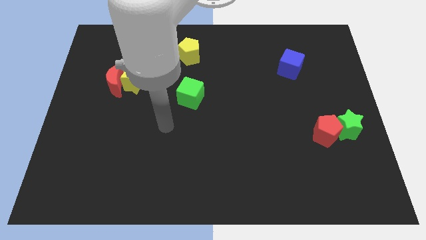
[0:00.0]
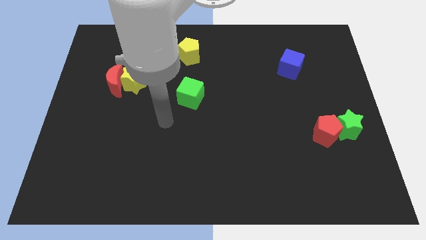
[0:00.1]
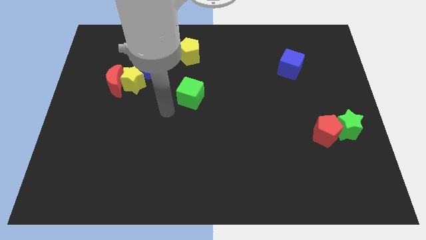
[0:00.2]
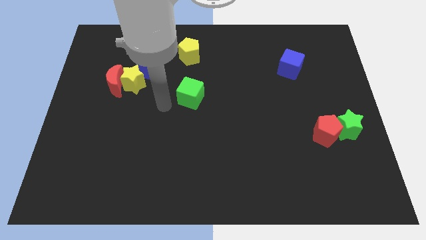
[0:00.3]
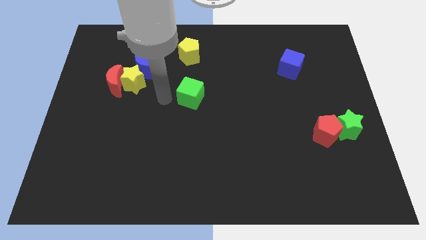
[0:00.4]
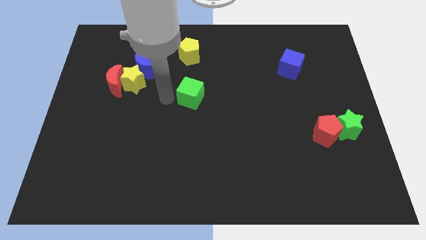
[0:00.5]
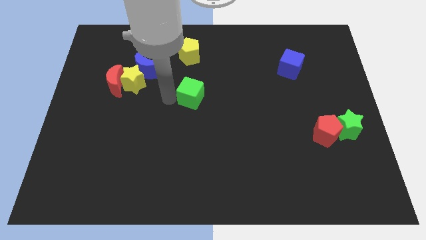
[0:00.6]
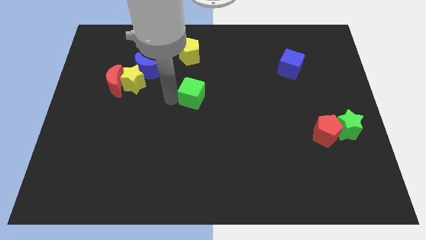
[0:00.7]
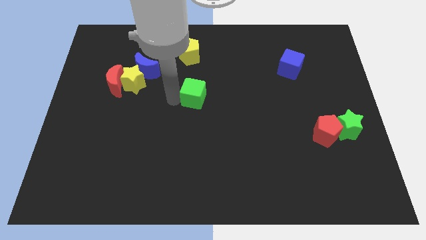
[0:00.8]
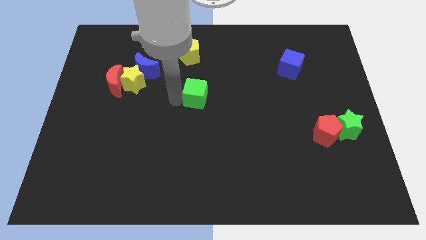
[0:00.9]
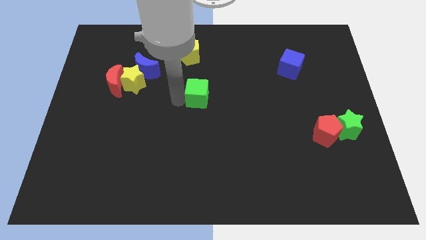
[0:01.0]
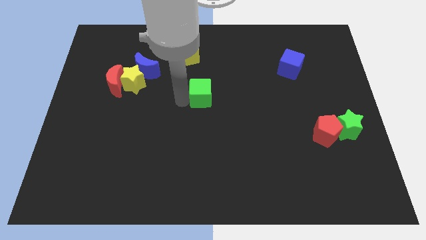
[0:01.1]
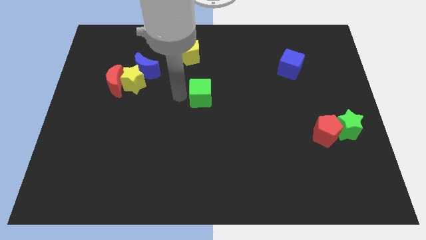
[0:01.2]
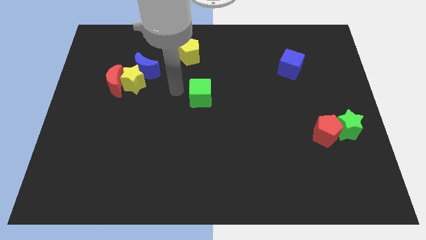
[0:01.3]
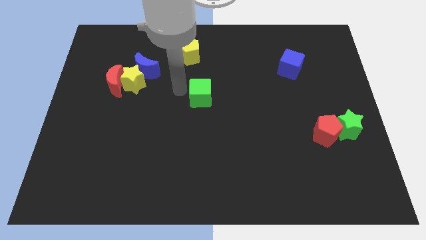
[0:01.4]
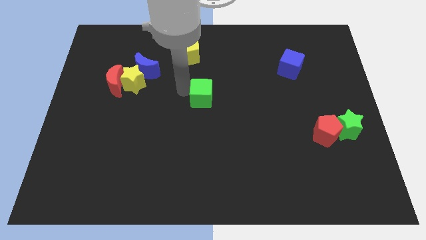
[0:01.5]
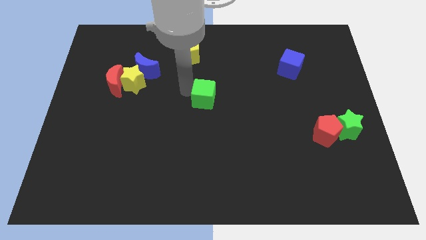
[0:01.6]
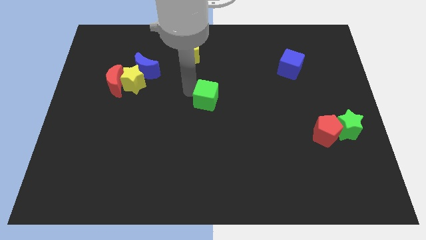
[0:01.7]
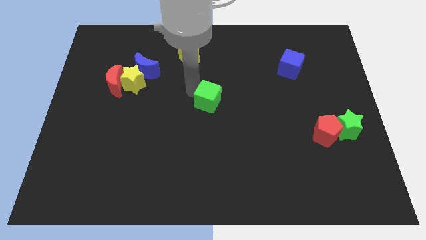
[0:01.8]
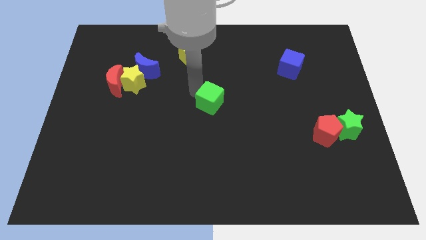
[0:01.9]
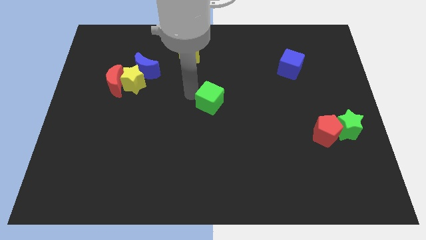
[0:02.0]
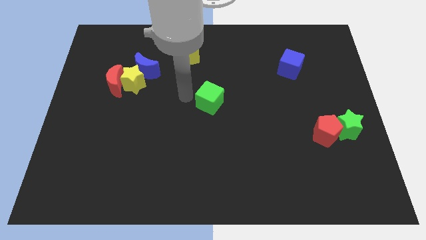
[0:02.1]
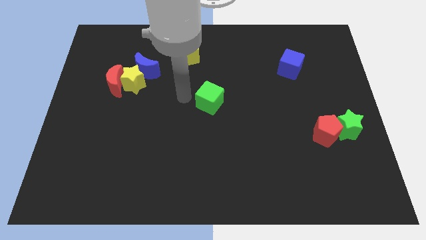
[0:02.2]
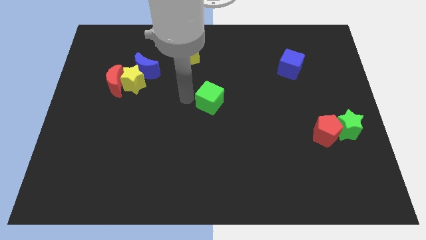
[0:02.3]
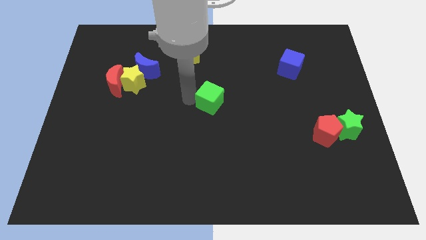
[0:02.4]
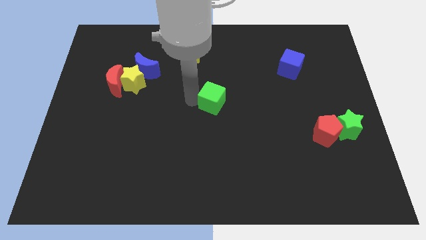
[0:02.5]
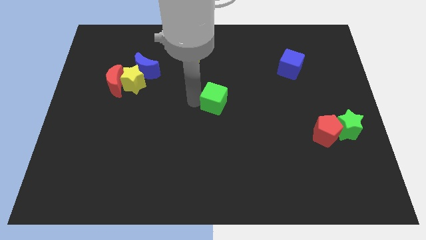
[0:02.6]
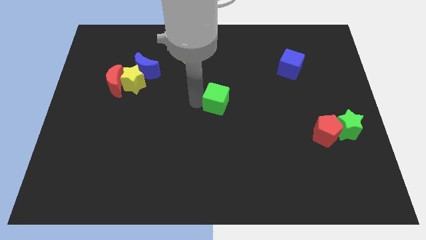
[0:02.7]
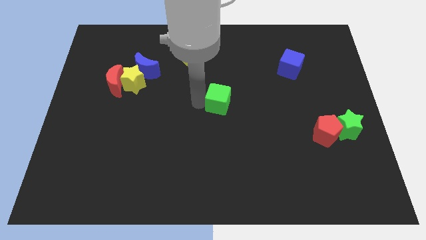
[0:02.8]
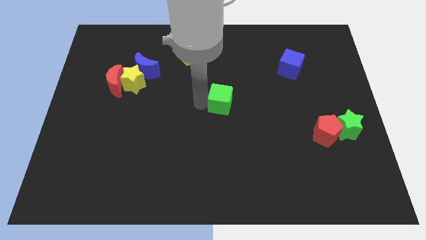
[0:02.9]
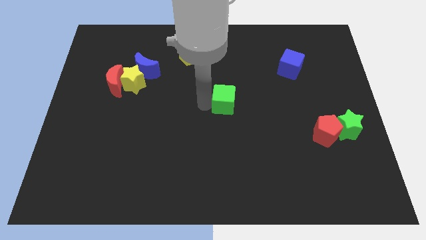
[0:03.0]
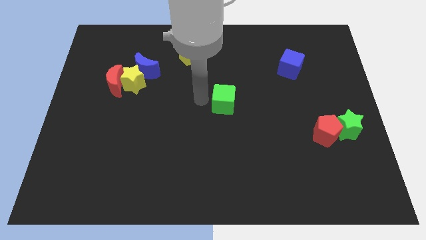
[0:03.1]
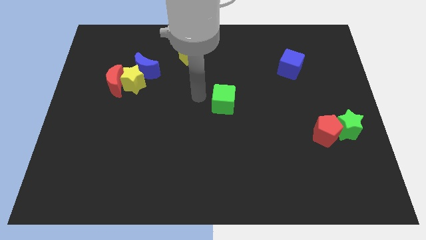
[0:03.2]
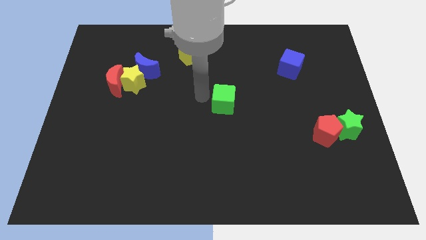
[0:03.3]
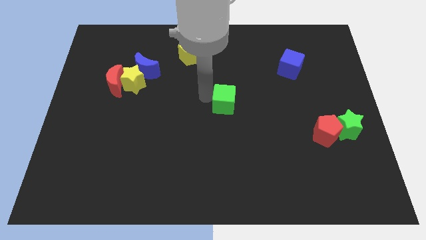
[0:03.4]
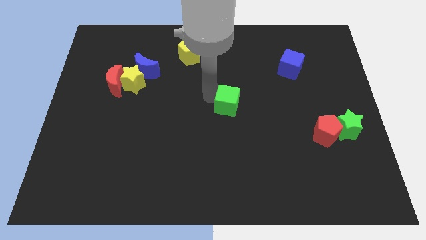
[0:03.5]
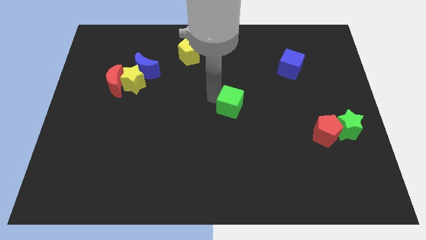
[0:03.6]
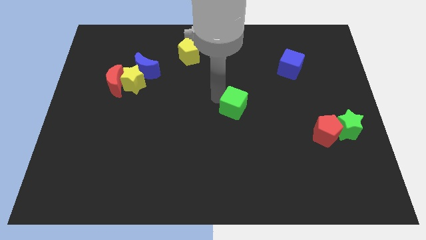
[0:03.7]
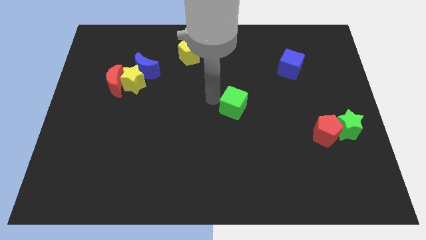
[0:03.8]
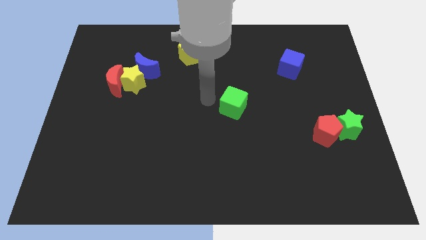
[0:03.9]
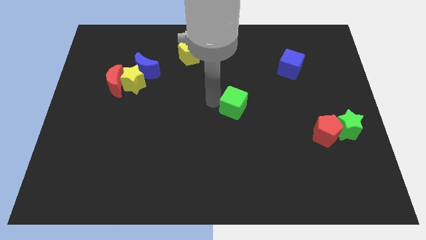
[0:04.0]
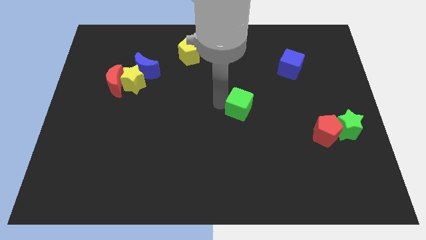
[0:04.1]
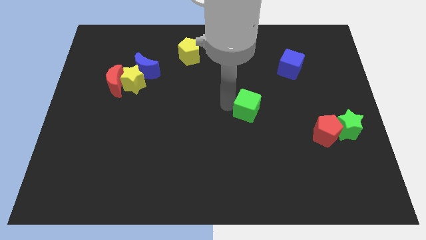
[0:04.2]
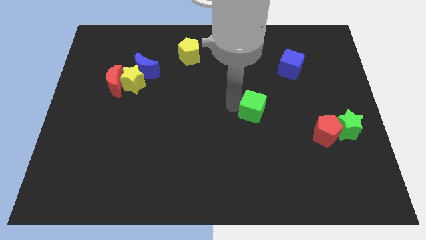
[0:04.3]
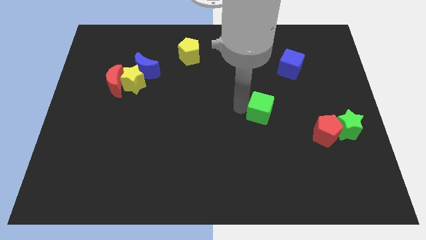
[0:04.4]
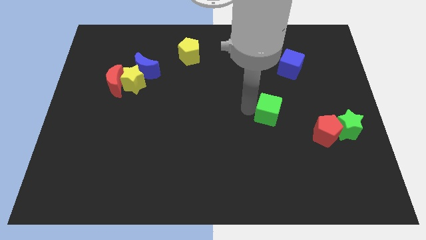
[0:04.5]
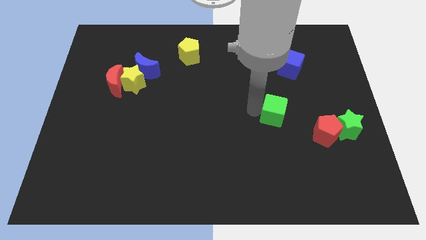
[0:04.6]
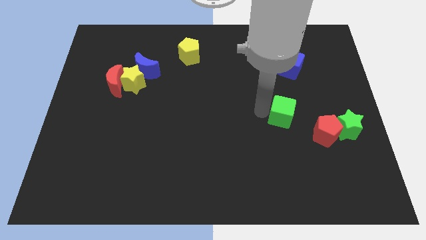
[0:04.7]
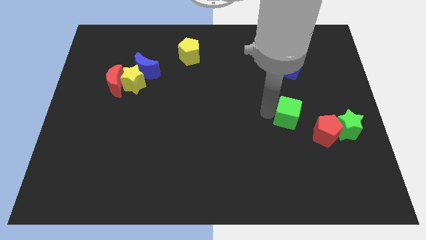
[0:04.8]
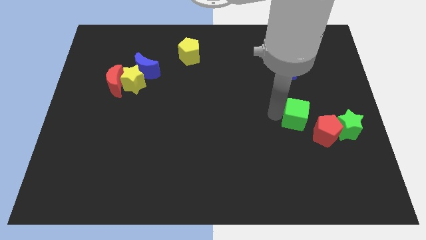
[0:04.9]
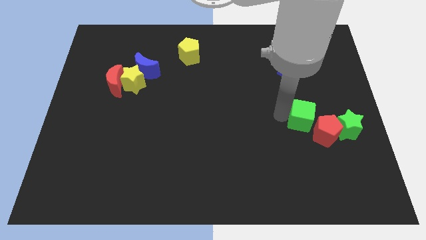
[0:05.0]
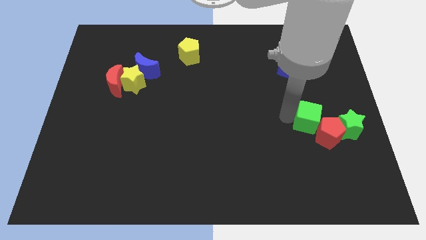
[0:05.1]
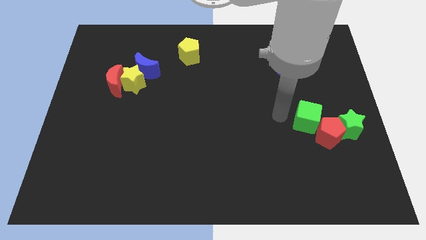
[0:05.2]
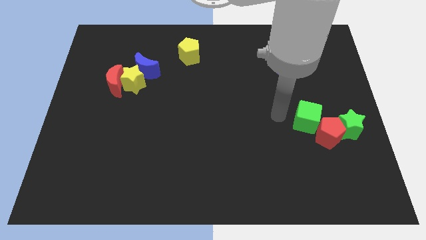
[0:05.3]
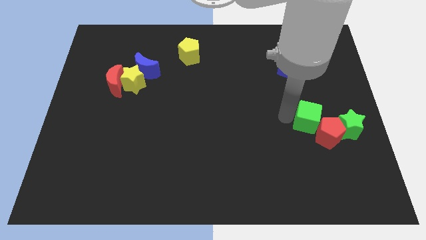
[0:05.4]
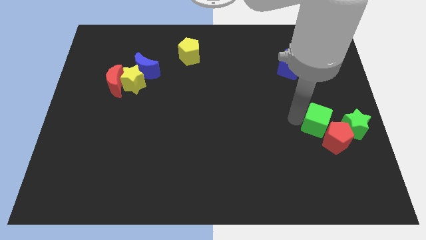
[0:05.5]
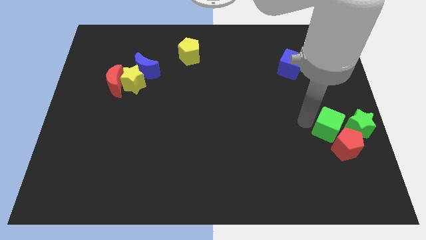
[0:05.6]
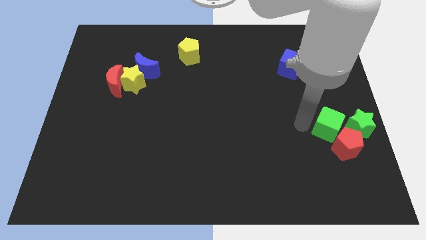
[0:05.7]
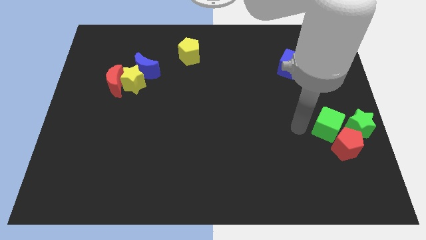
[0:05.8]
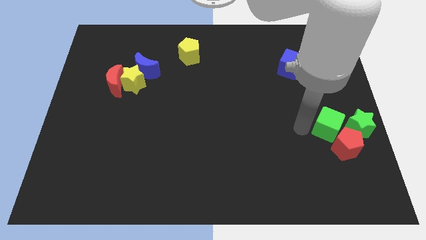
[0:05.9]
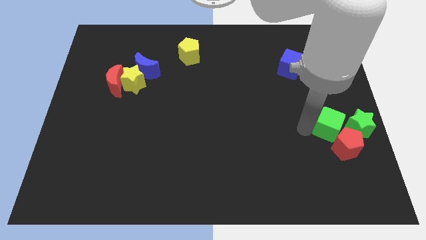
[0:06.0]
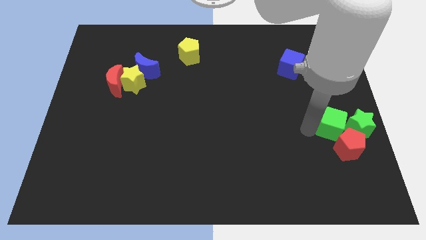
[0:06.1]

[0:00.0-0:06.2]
move the green cube close to the green star

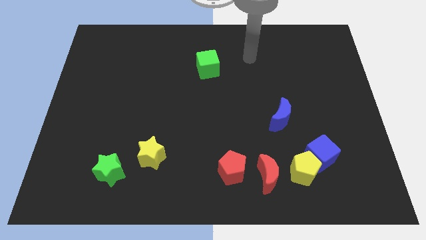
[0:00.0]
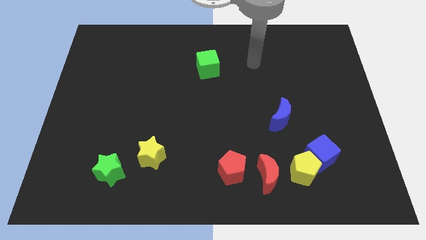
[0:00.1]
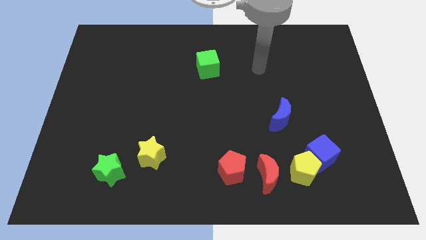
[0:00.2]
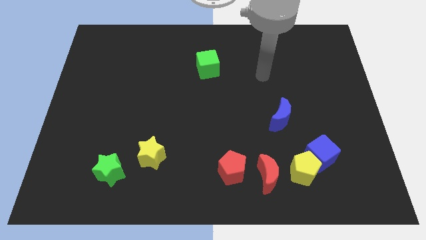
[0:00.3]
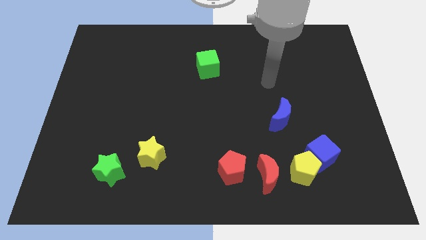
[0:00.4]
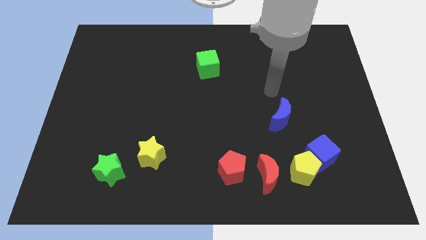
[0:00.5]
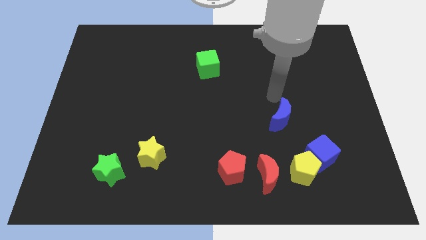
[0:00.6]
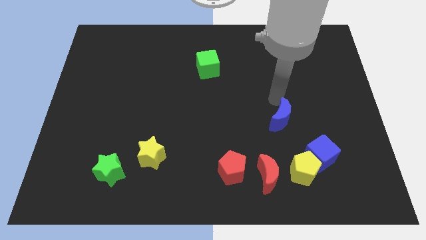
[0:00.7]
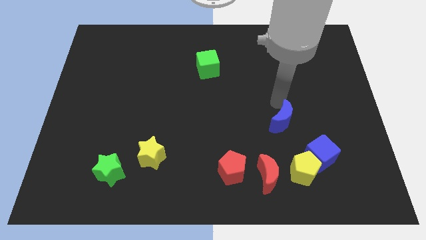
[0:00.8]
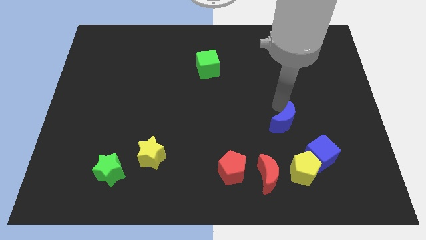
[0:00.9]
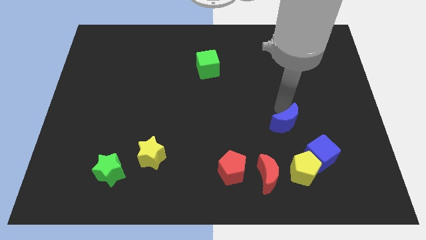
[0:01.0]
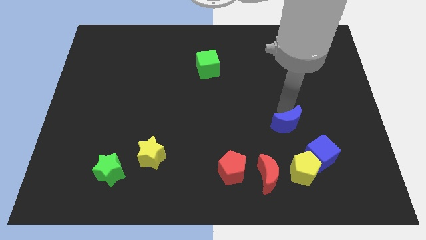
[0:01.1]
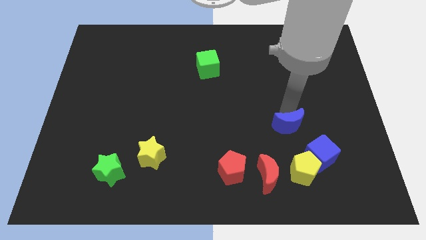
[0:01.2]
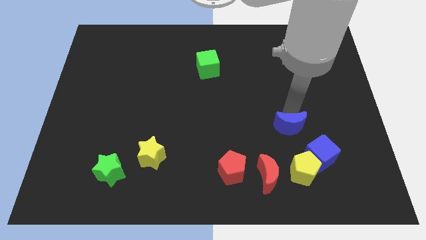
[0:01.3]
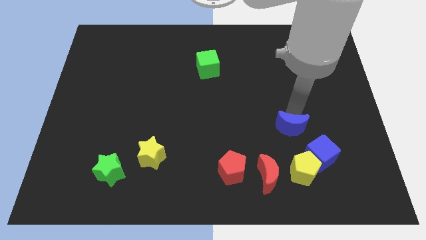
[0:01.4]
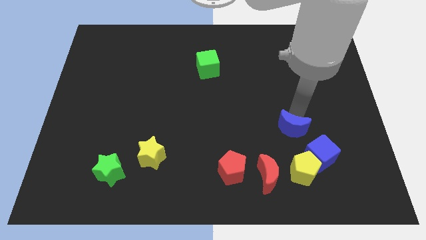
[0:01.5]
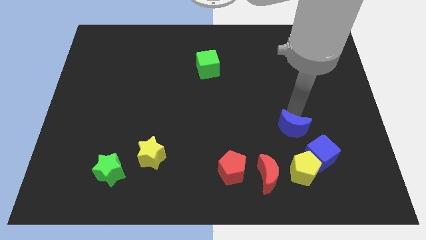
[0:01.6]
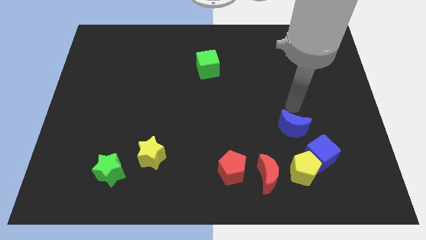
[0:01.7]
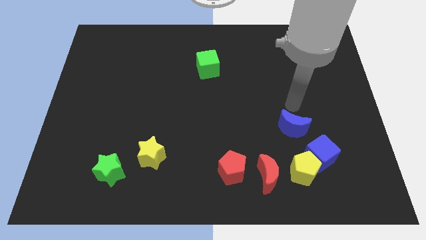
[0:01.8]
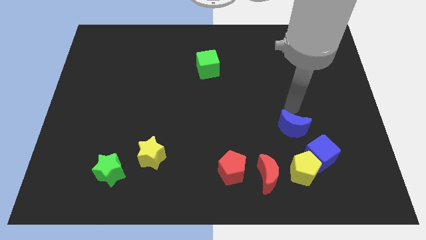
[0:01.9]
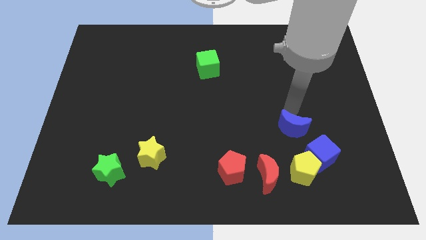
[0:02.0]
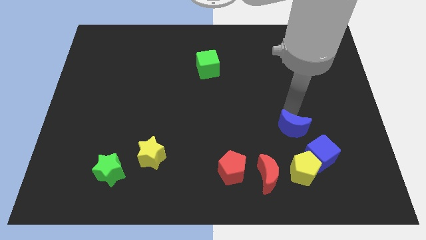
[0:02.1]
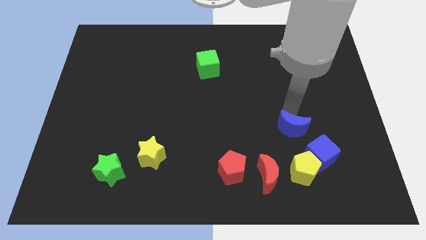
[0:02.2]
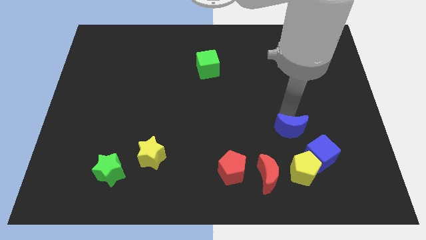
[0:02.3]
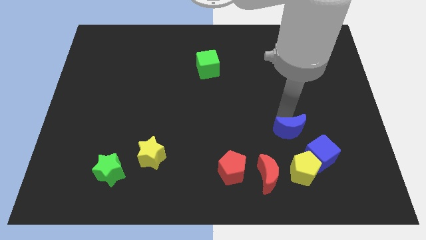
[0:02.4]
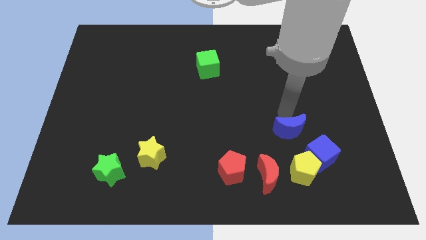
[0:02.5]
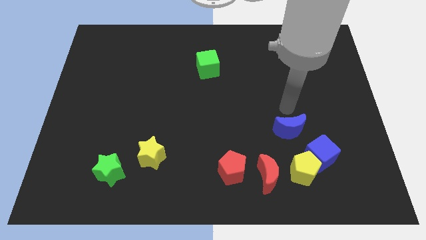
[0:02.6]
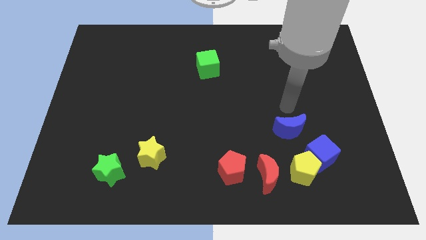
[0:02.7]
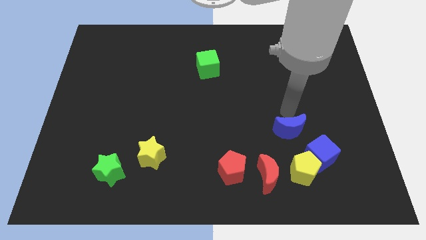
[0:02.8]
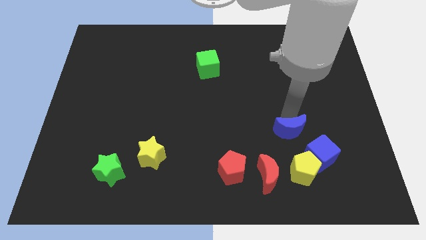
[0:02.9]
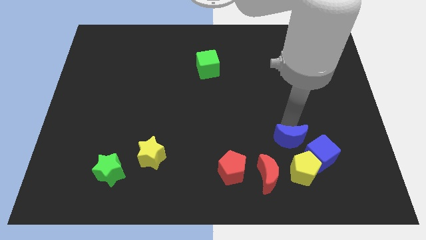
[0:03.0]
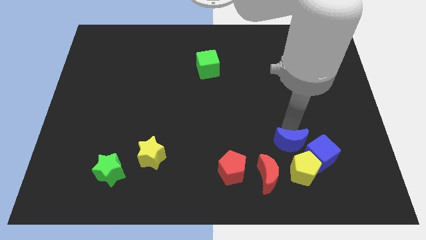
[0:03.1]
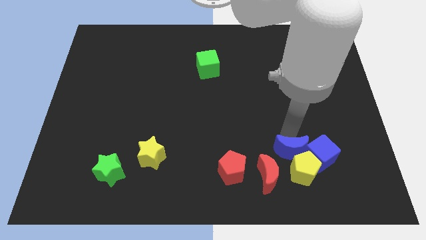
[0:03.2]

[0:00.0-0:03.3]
put the blue moon next to the yellow pentagon
